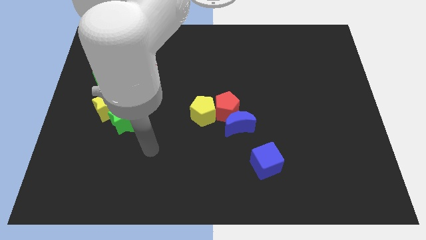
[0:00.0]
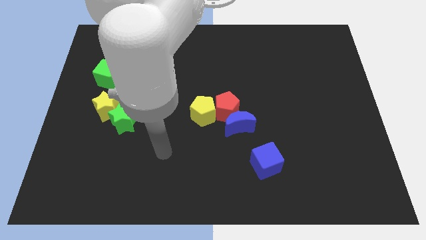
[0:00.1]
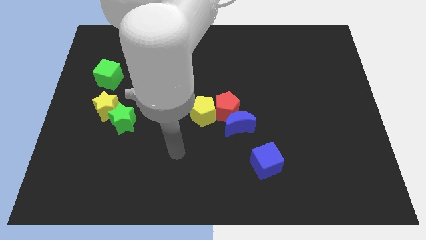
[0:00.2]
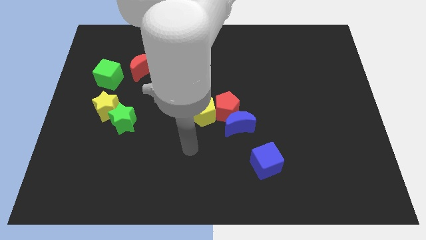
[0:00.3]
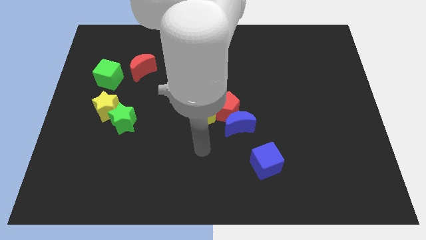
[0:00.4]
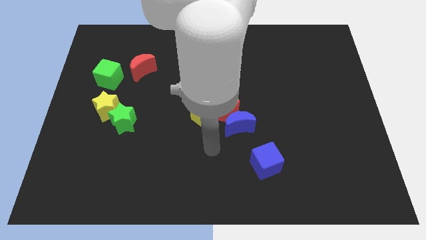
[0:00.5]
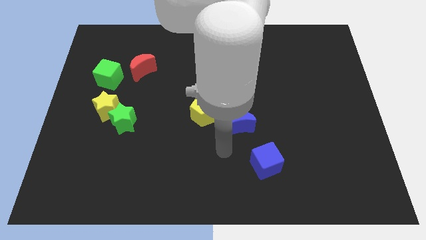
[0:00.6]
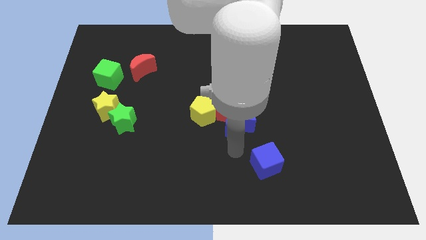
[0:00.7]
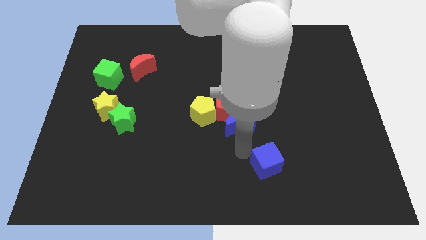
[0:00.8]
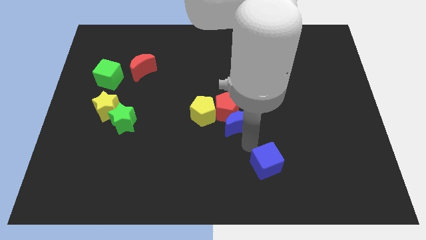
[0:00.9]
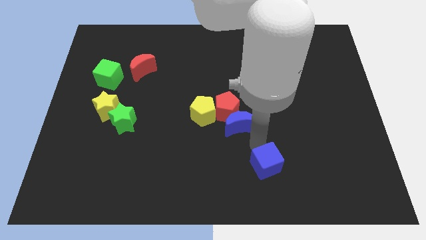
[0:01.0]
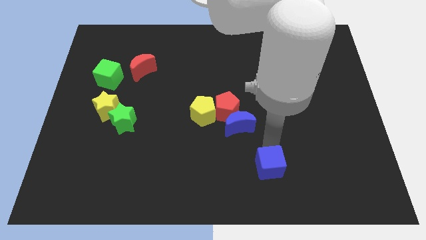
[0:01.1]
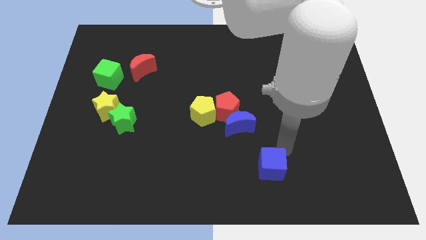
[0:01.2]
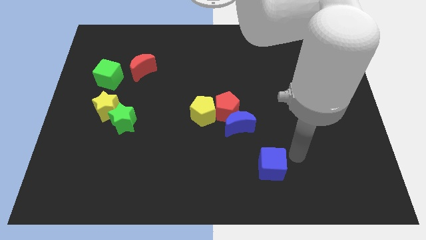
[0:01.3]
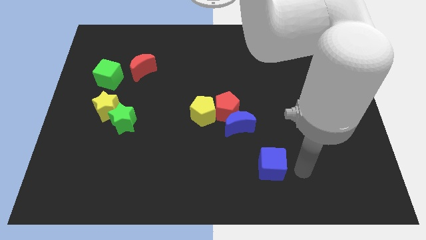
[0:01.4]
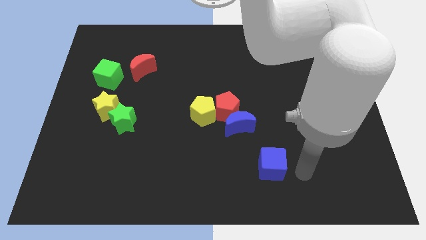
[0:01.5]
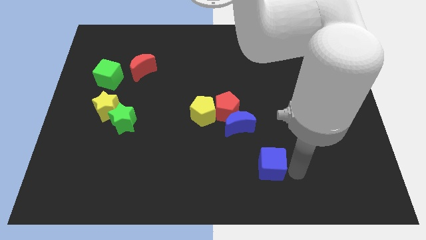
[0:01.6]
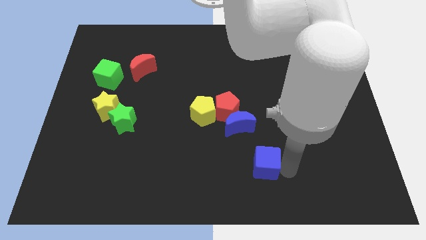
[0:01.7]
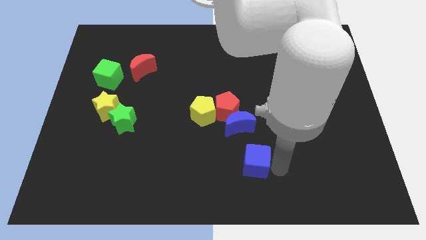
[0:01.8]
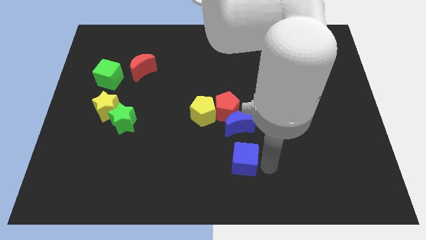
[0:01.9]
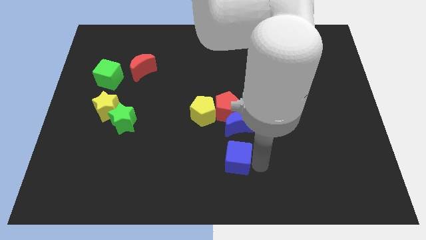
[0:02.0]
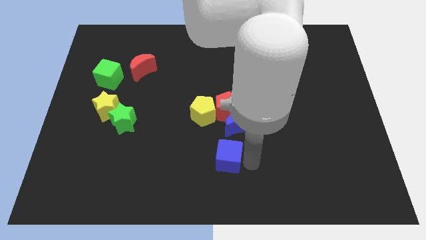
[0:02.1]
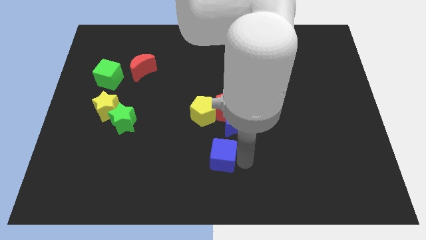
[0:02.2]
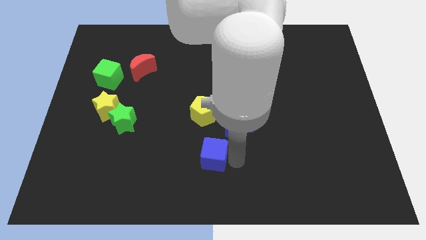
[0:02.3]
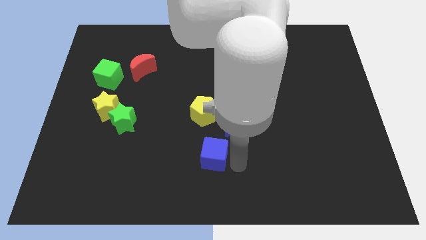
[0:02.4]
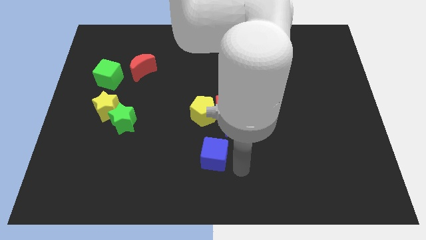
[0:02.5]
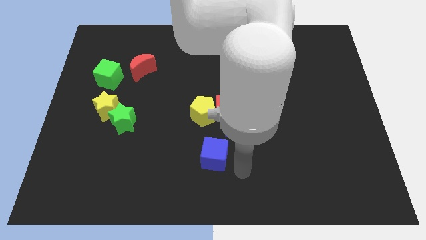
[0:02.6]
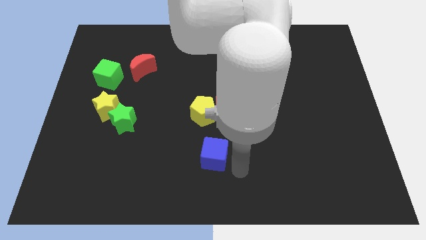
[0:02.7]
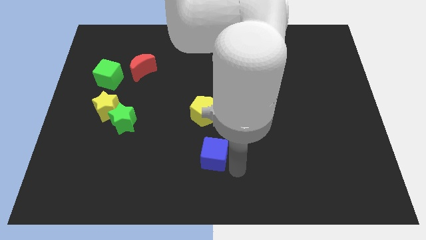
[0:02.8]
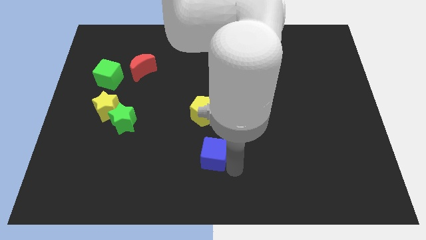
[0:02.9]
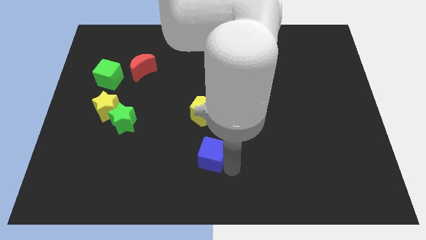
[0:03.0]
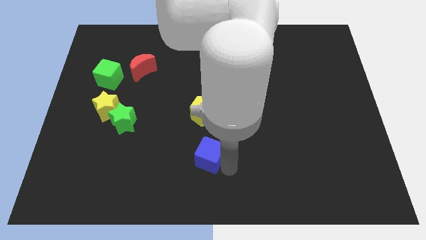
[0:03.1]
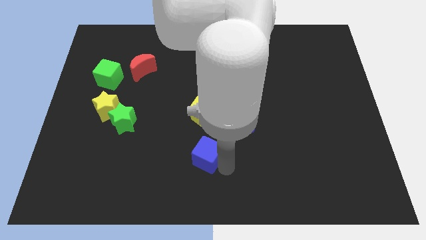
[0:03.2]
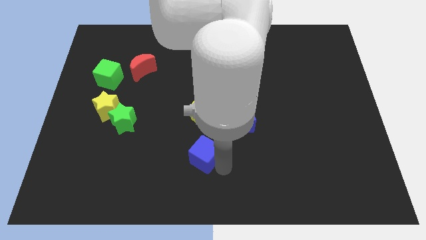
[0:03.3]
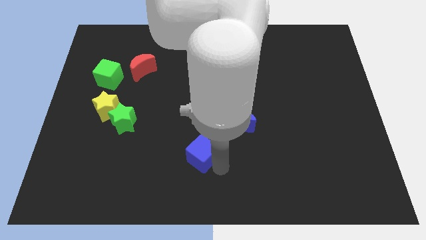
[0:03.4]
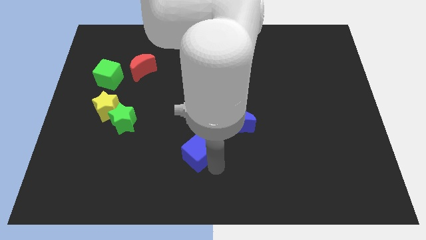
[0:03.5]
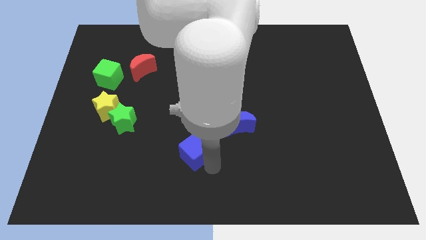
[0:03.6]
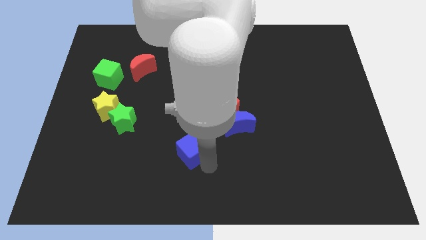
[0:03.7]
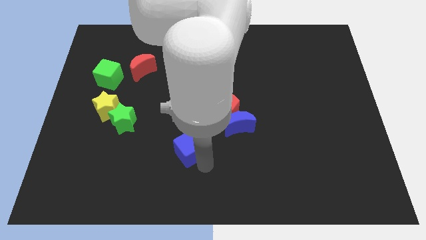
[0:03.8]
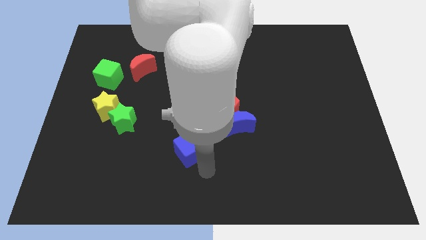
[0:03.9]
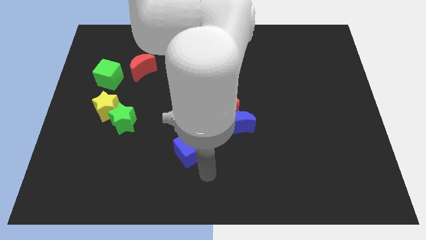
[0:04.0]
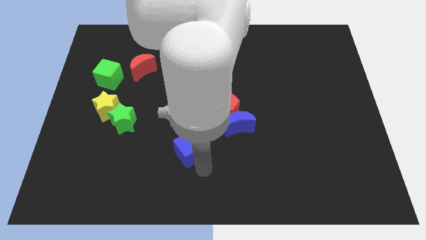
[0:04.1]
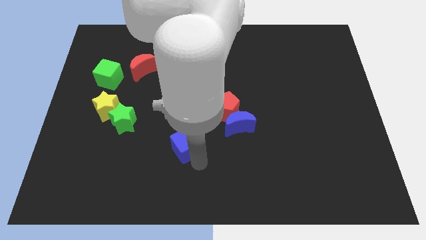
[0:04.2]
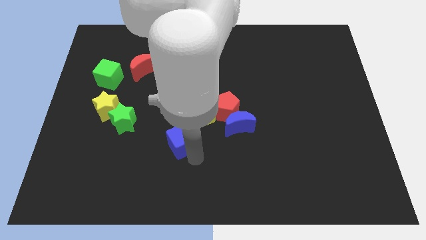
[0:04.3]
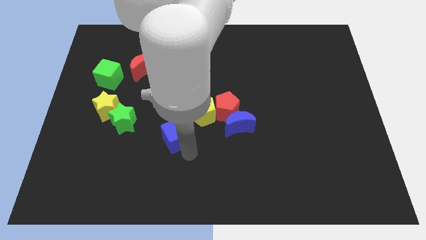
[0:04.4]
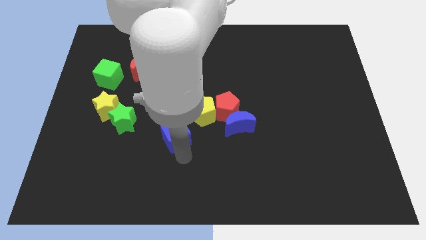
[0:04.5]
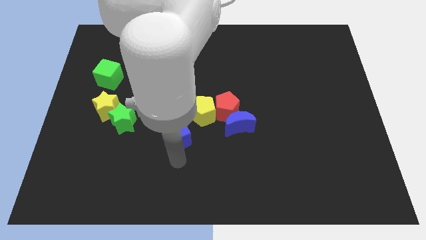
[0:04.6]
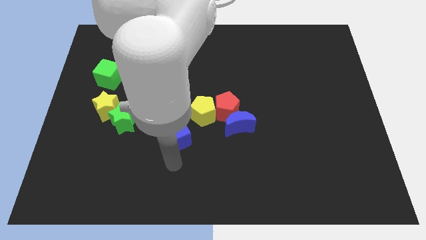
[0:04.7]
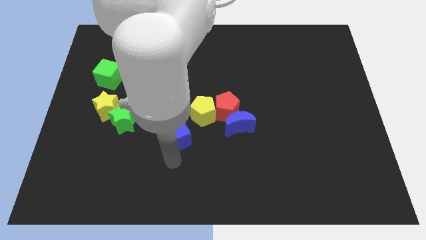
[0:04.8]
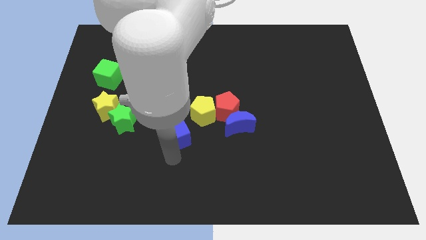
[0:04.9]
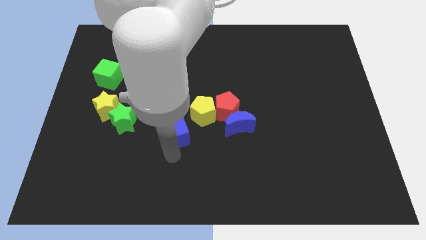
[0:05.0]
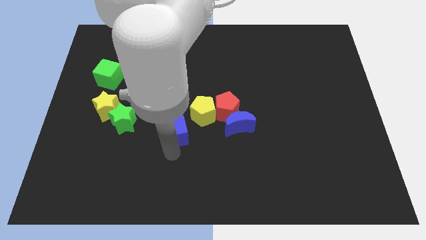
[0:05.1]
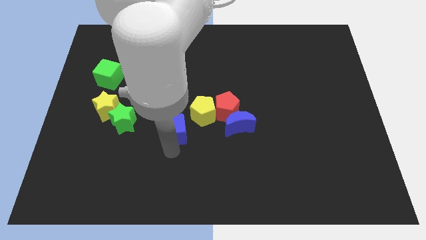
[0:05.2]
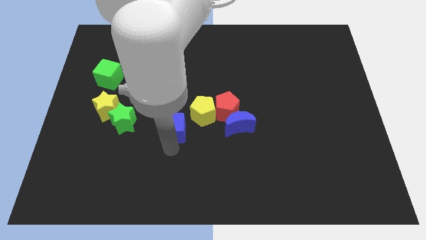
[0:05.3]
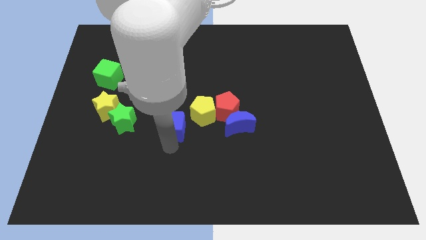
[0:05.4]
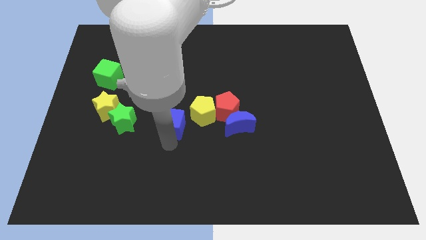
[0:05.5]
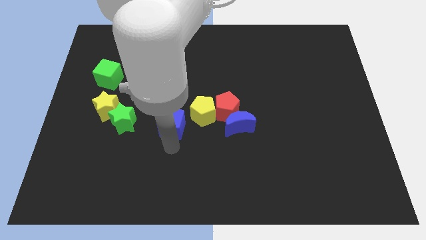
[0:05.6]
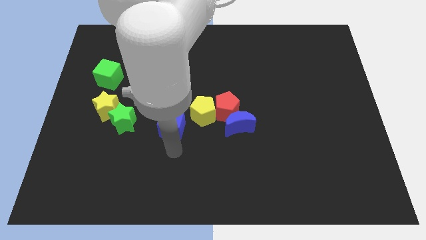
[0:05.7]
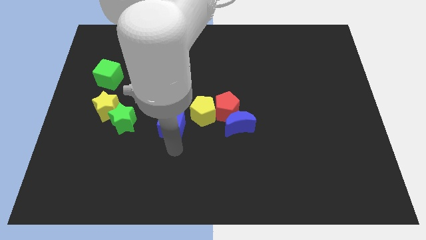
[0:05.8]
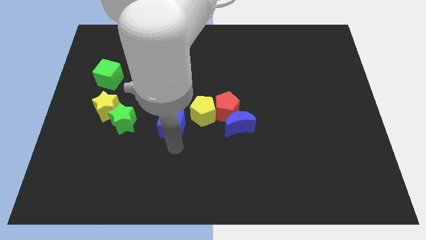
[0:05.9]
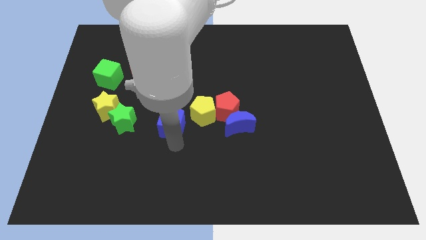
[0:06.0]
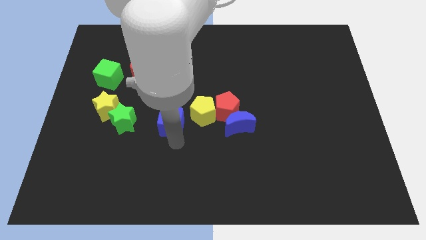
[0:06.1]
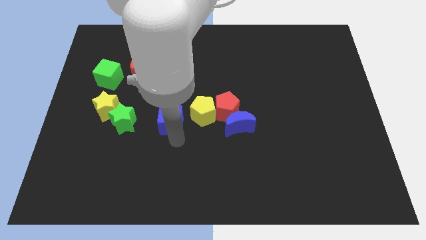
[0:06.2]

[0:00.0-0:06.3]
push the blue cube diagonally up and to the left

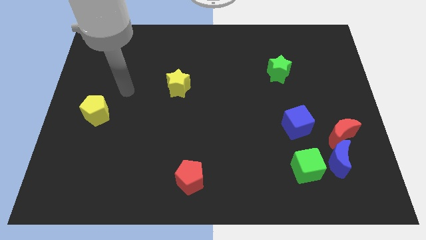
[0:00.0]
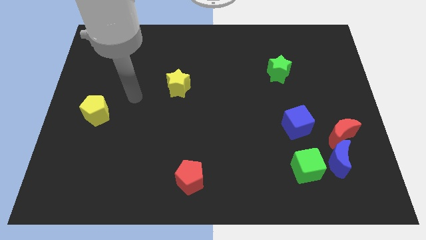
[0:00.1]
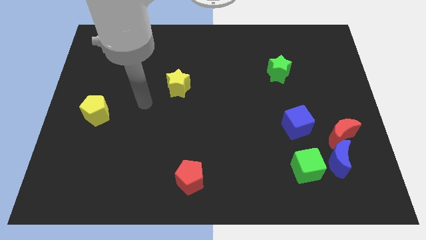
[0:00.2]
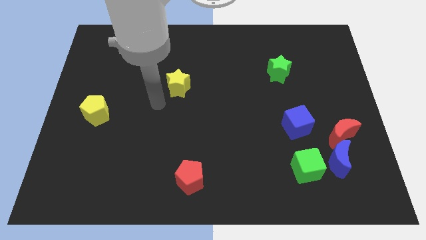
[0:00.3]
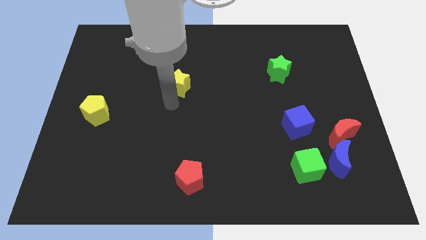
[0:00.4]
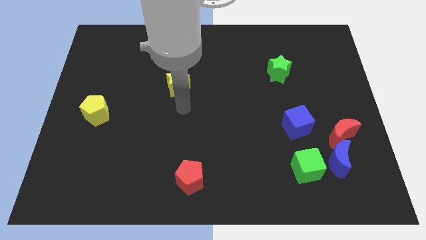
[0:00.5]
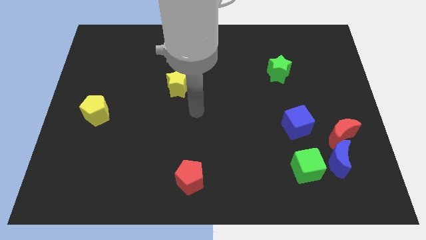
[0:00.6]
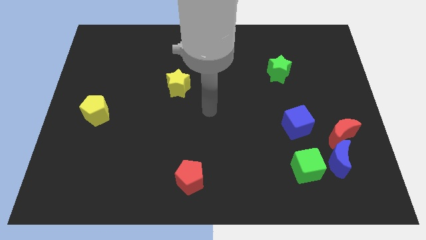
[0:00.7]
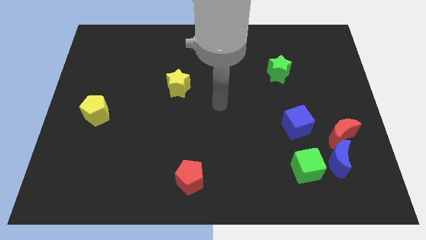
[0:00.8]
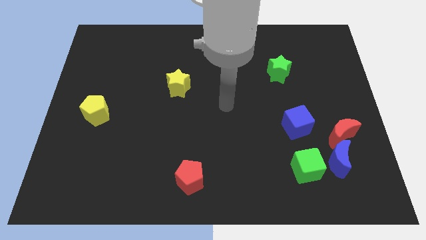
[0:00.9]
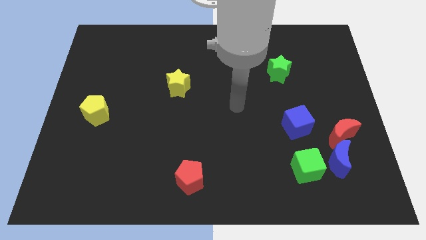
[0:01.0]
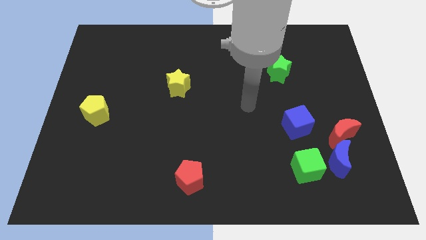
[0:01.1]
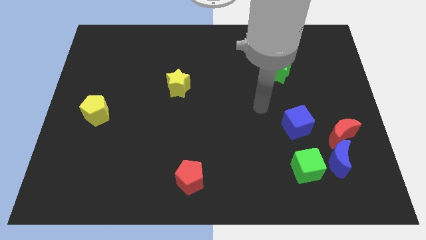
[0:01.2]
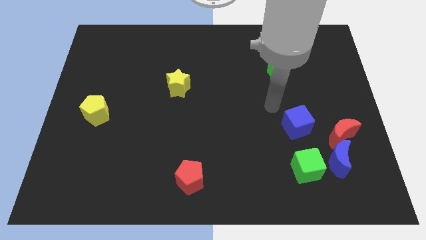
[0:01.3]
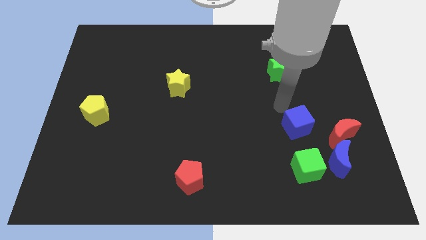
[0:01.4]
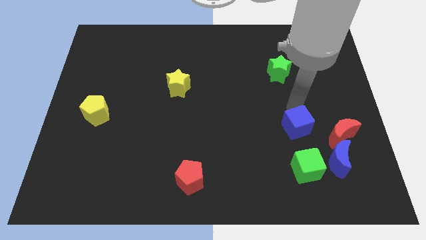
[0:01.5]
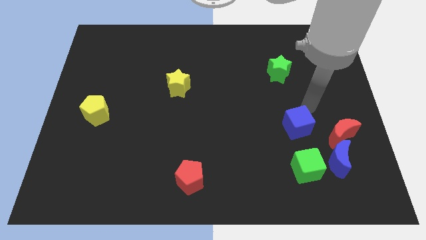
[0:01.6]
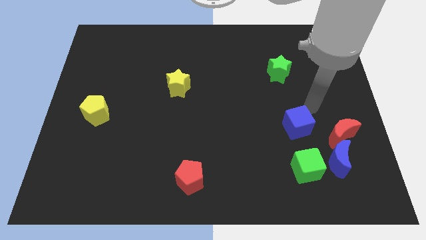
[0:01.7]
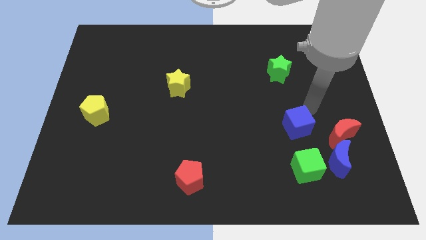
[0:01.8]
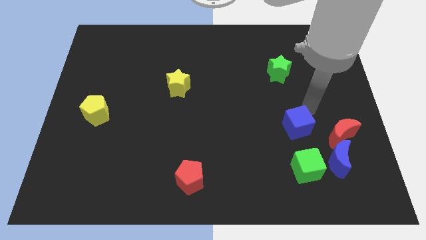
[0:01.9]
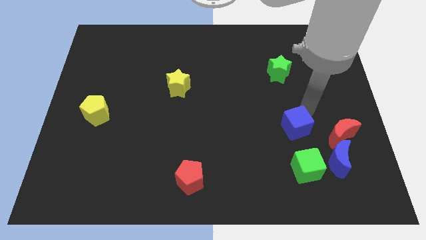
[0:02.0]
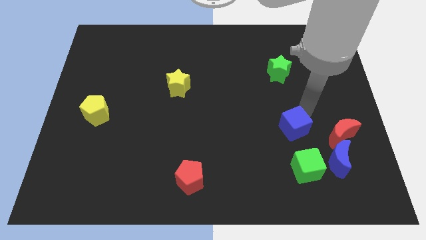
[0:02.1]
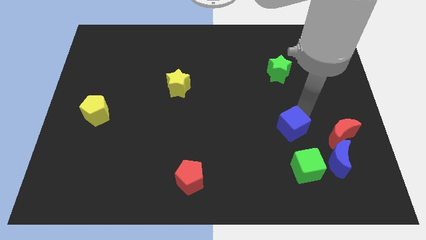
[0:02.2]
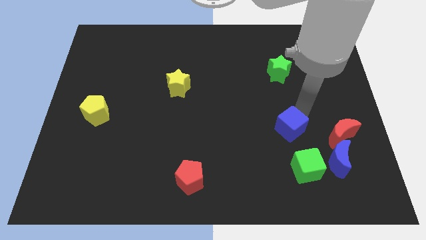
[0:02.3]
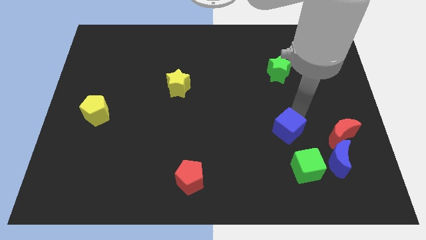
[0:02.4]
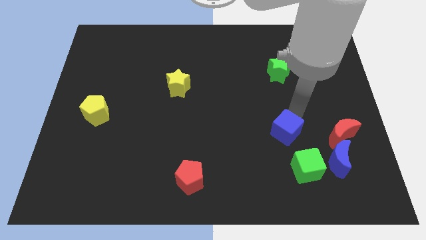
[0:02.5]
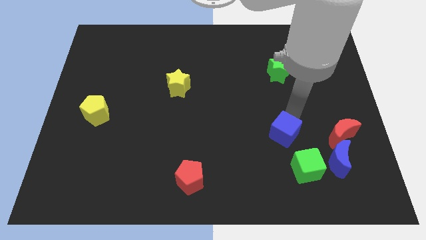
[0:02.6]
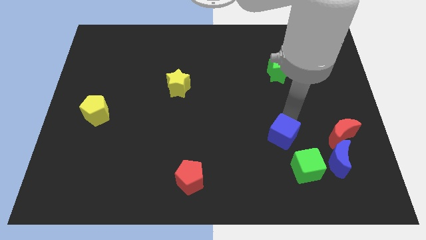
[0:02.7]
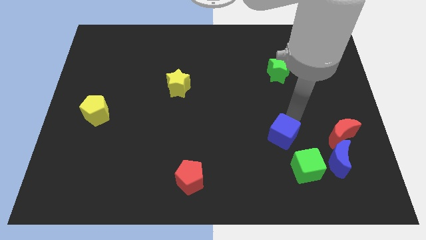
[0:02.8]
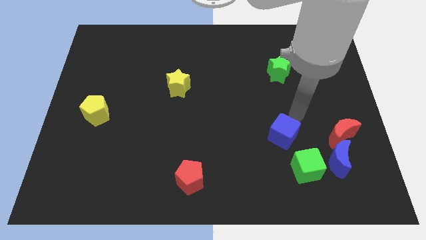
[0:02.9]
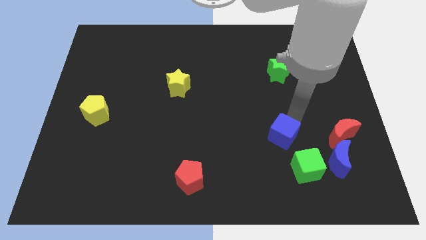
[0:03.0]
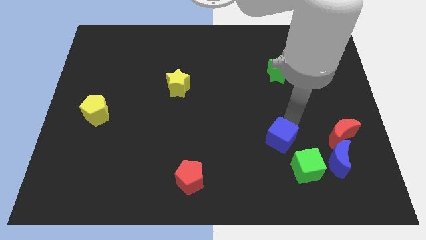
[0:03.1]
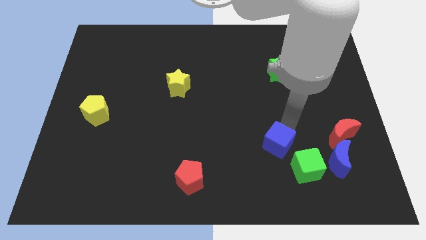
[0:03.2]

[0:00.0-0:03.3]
slightly move the blue cube diagonally down and left
